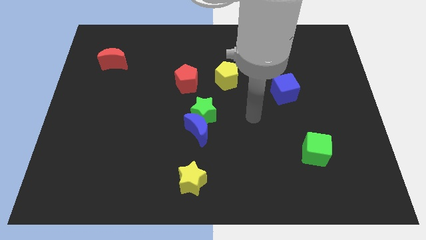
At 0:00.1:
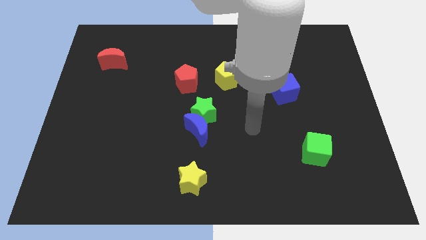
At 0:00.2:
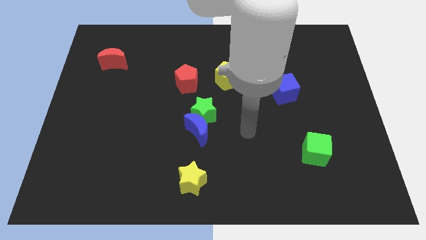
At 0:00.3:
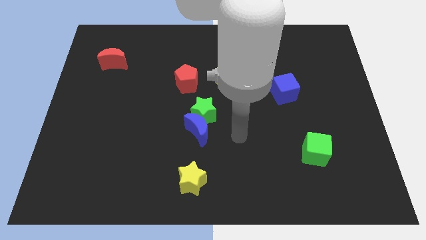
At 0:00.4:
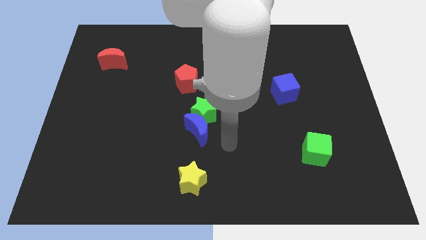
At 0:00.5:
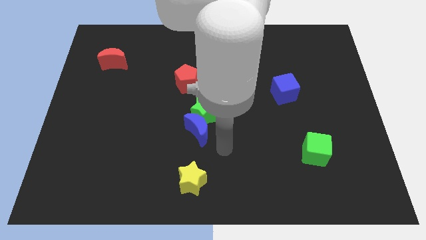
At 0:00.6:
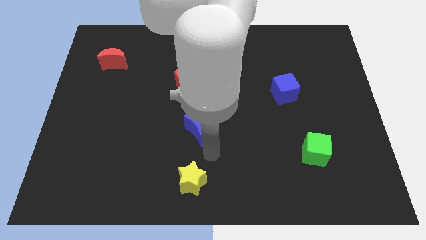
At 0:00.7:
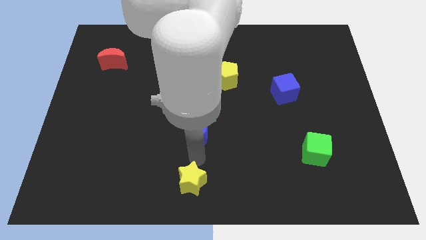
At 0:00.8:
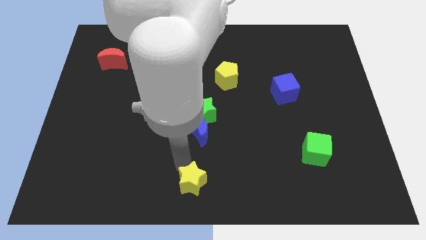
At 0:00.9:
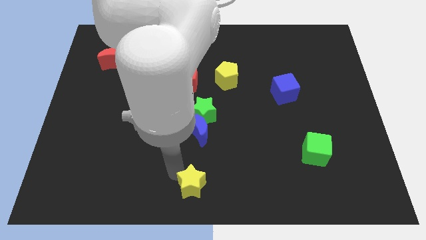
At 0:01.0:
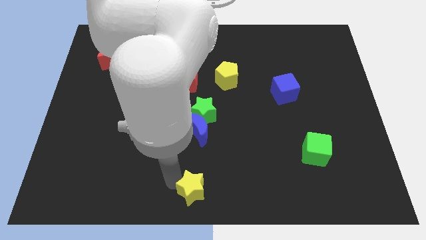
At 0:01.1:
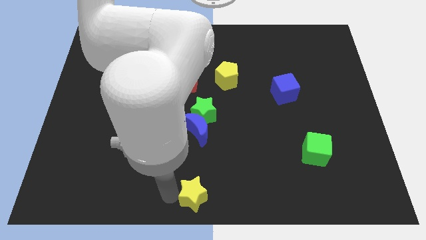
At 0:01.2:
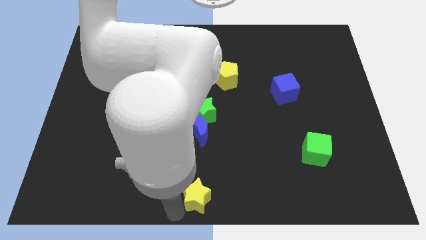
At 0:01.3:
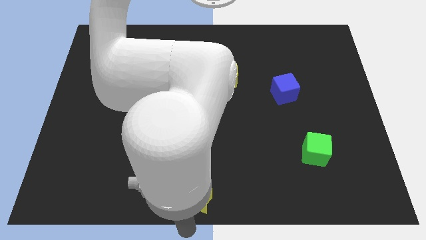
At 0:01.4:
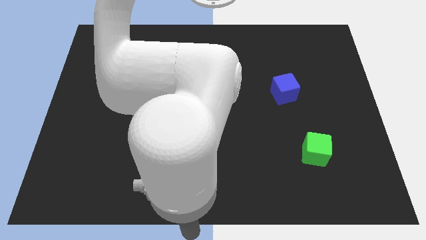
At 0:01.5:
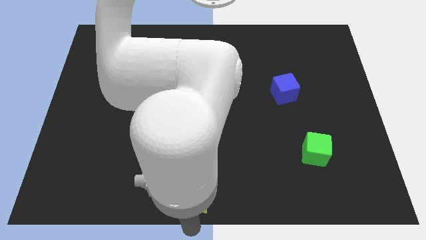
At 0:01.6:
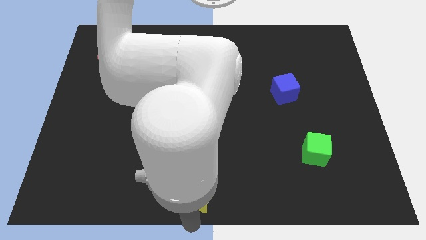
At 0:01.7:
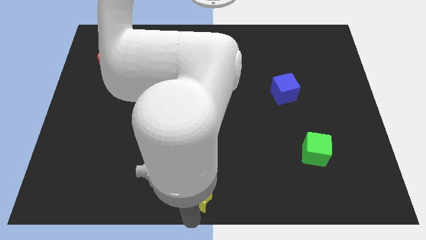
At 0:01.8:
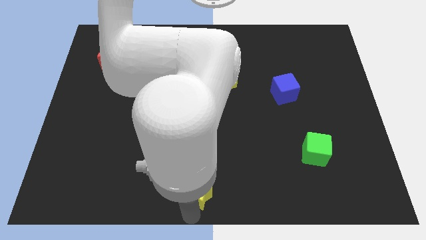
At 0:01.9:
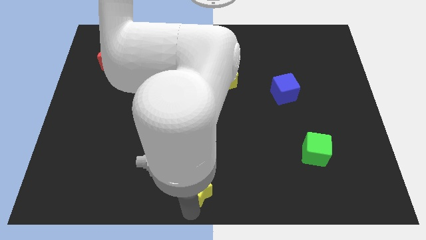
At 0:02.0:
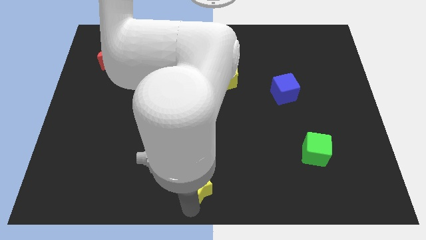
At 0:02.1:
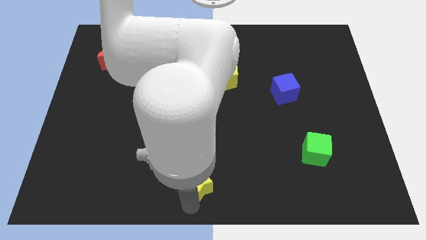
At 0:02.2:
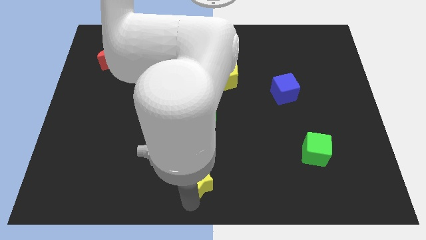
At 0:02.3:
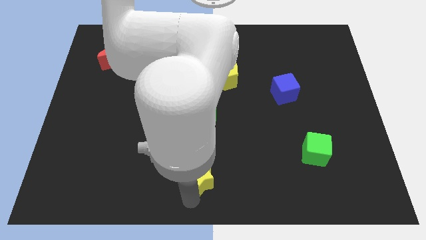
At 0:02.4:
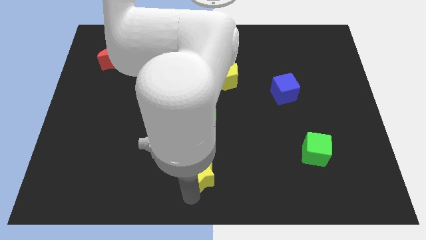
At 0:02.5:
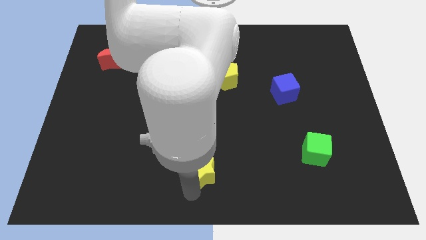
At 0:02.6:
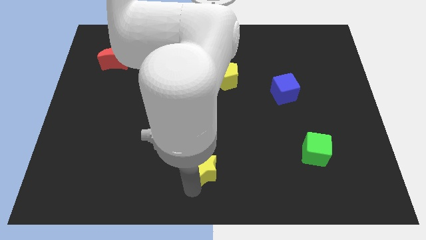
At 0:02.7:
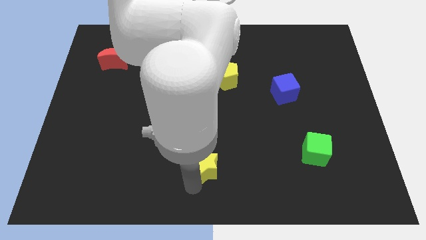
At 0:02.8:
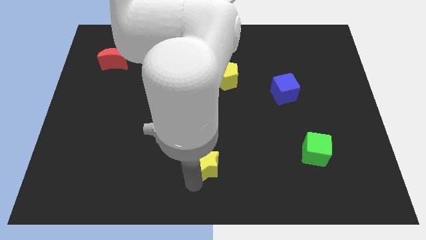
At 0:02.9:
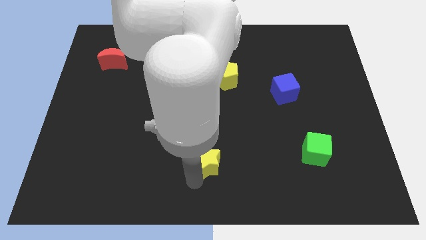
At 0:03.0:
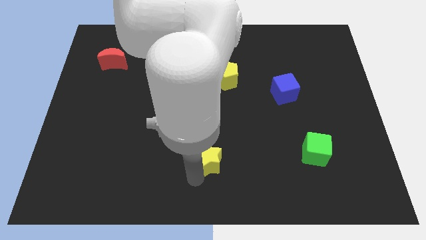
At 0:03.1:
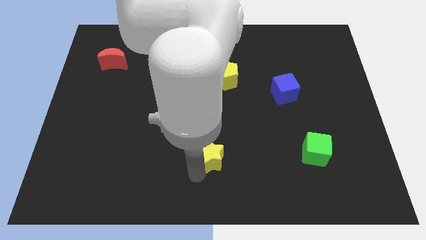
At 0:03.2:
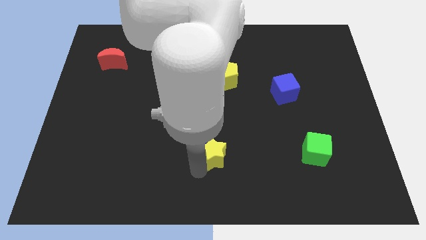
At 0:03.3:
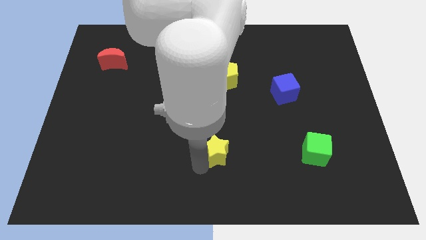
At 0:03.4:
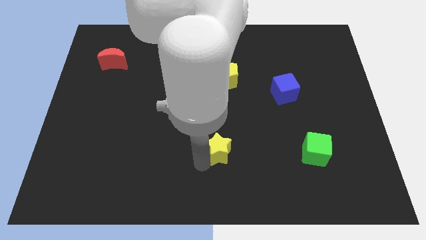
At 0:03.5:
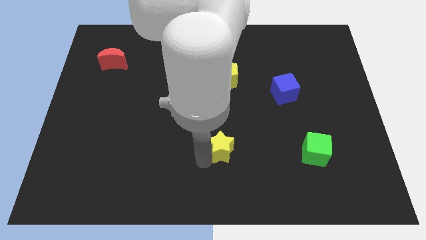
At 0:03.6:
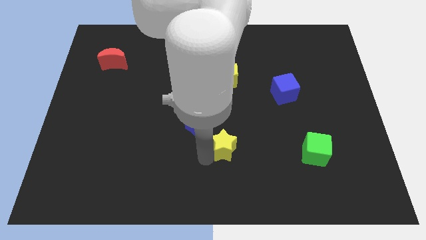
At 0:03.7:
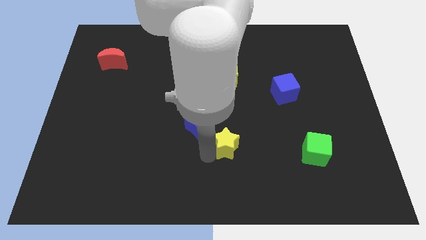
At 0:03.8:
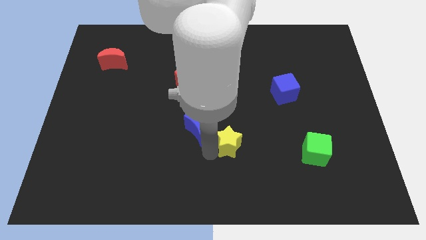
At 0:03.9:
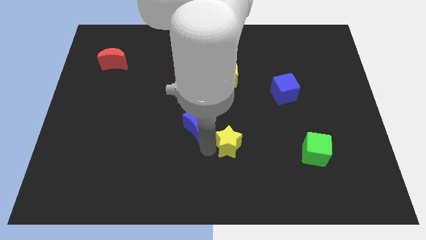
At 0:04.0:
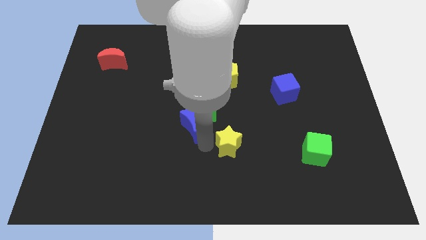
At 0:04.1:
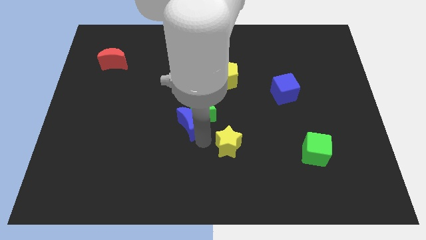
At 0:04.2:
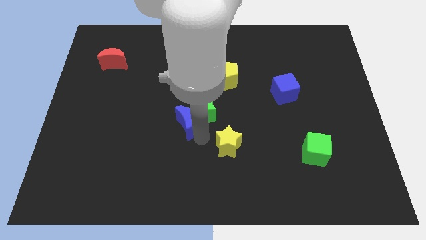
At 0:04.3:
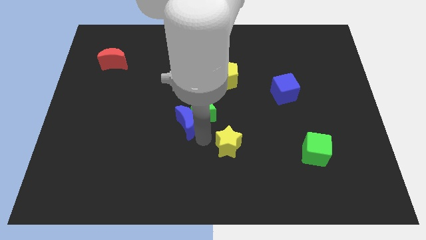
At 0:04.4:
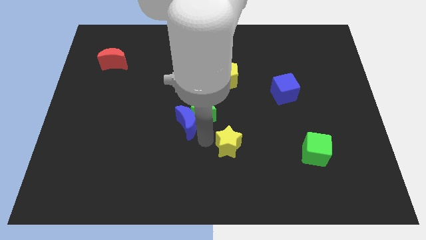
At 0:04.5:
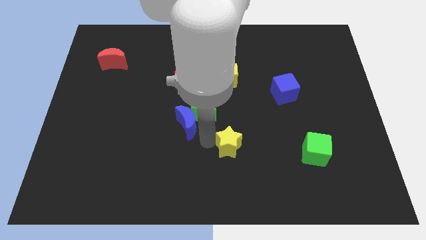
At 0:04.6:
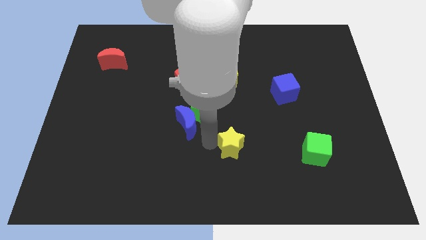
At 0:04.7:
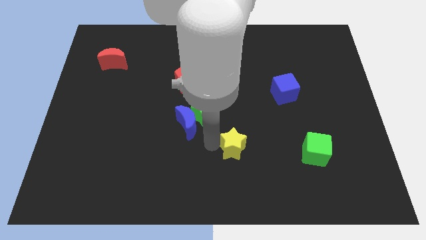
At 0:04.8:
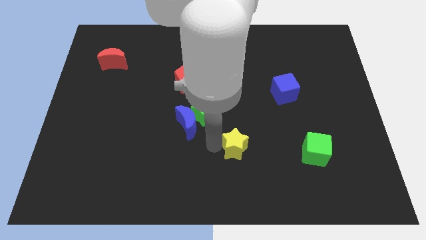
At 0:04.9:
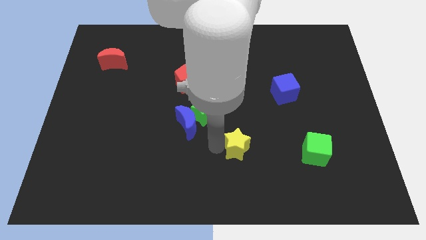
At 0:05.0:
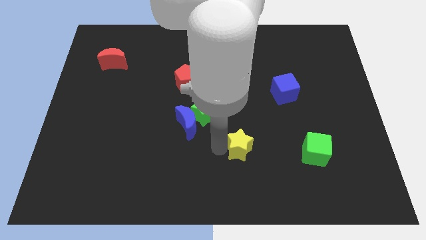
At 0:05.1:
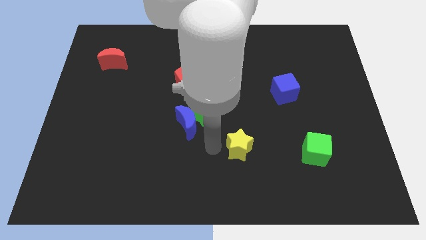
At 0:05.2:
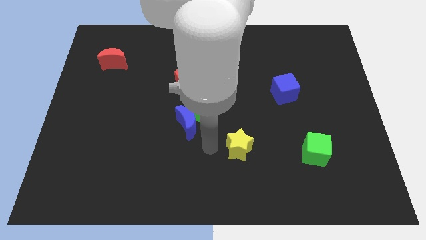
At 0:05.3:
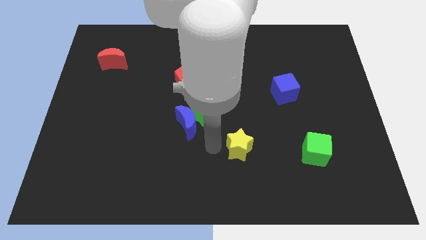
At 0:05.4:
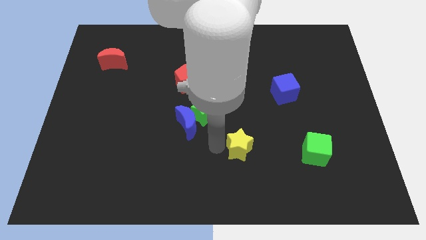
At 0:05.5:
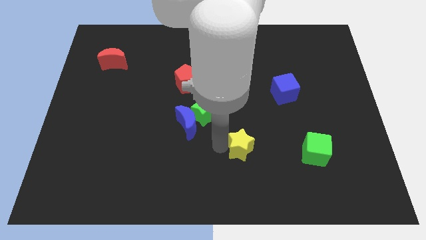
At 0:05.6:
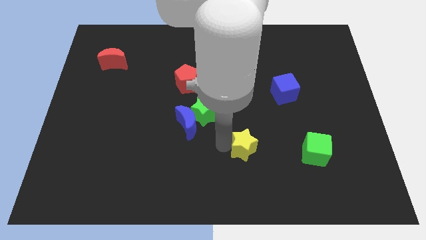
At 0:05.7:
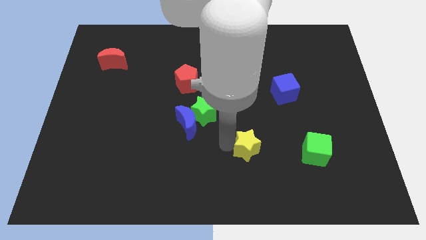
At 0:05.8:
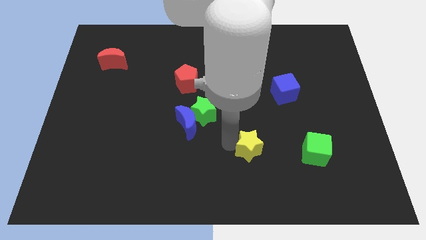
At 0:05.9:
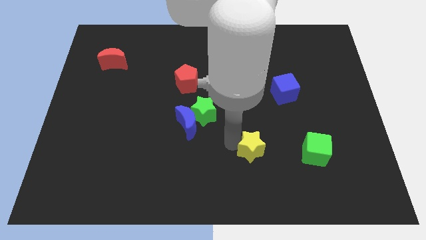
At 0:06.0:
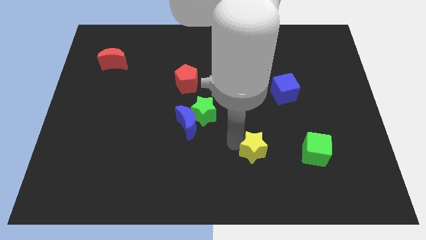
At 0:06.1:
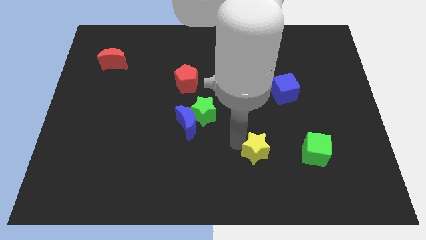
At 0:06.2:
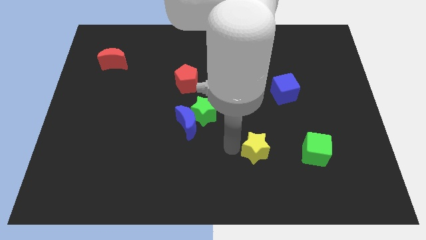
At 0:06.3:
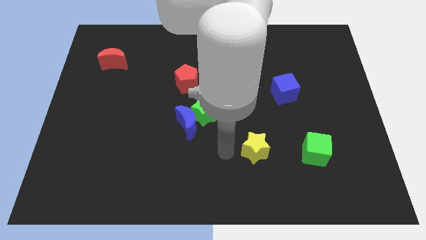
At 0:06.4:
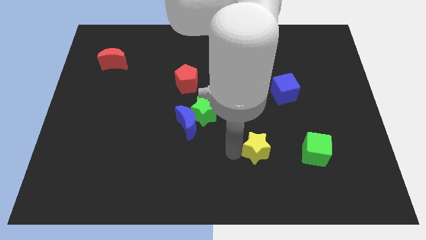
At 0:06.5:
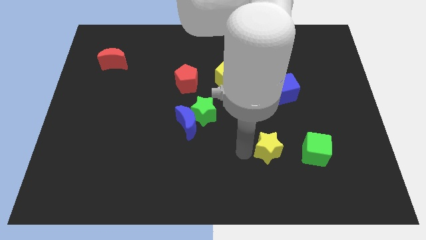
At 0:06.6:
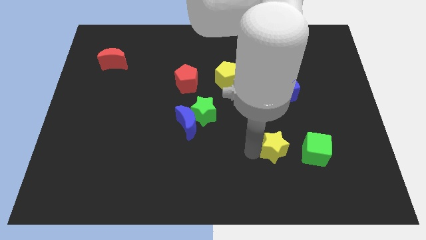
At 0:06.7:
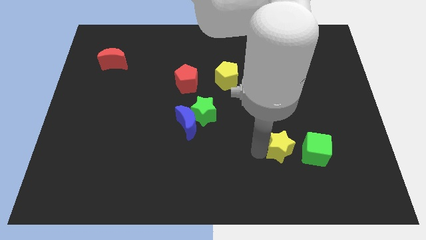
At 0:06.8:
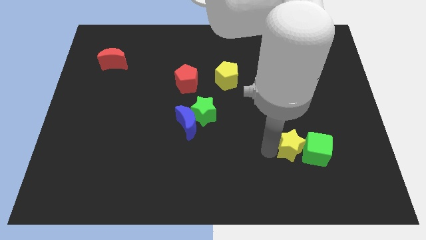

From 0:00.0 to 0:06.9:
slide the yellow star next to the green cube

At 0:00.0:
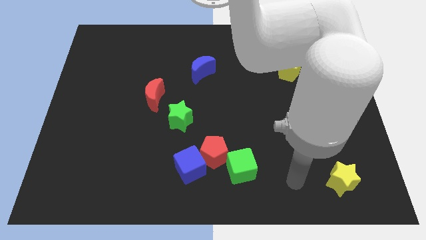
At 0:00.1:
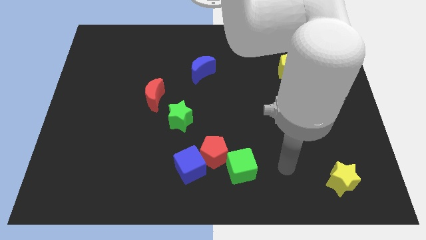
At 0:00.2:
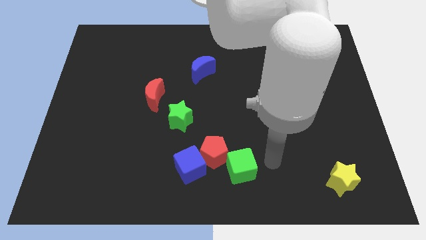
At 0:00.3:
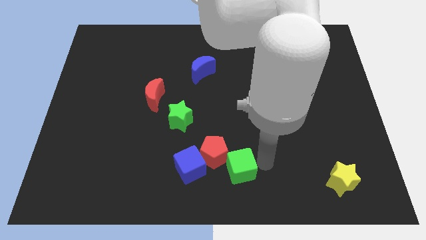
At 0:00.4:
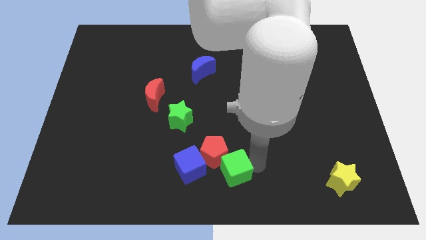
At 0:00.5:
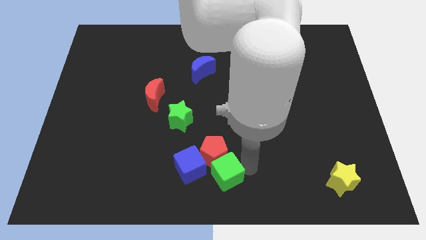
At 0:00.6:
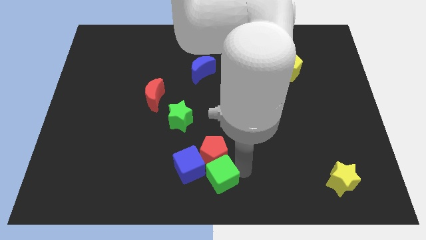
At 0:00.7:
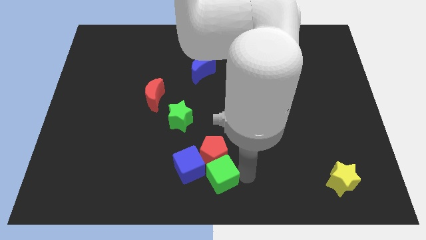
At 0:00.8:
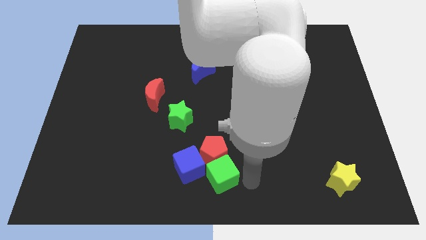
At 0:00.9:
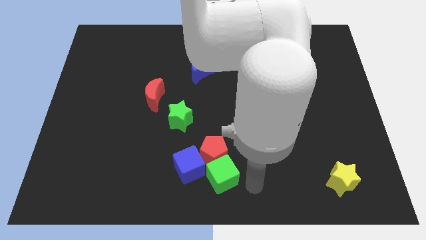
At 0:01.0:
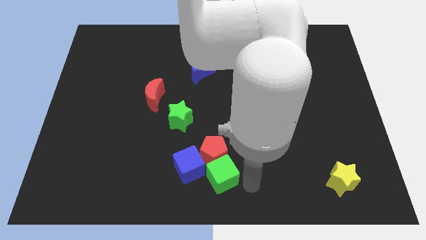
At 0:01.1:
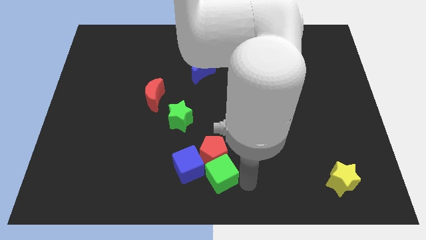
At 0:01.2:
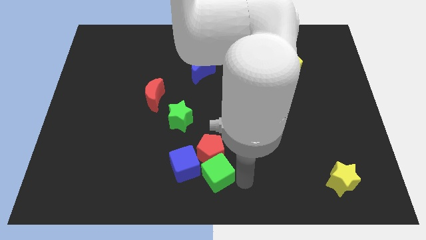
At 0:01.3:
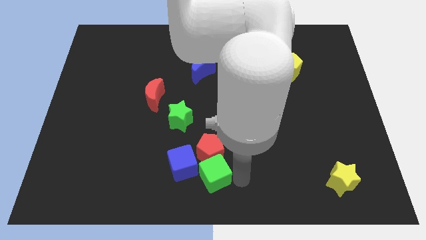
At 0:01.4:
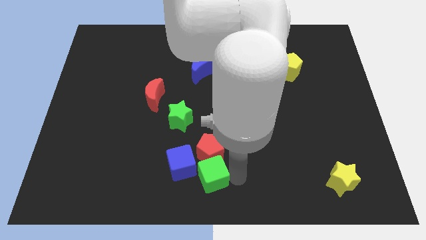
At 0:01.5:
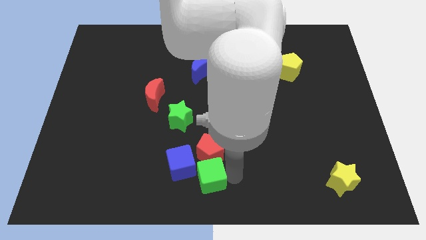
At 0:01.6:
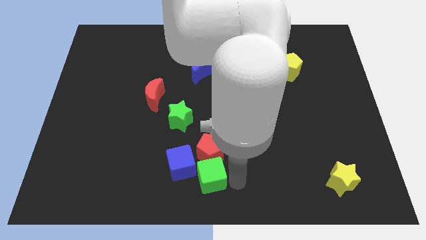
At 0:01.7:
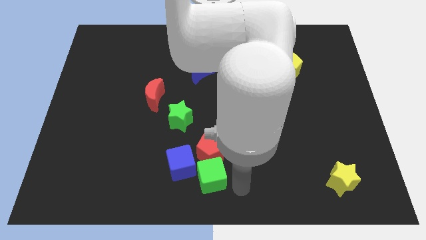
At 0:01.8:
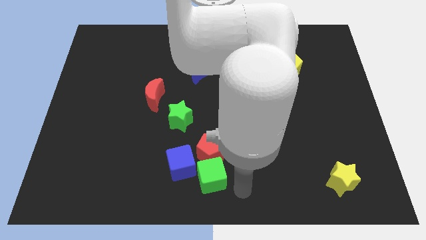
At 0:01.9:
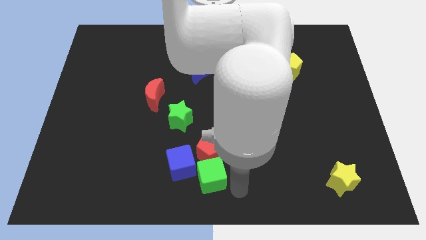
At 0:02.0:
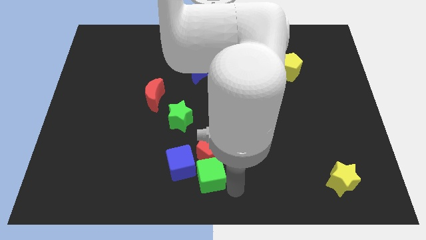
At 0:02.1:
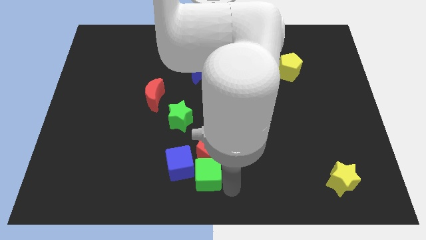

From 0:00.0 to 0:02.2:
put the green cube to the blue cube
